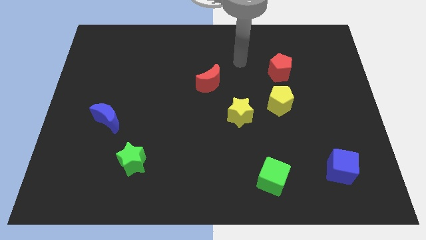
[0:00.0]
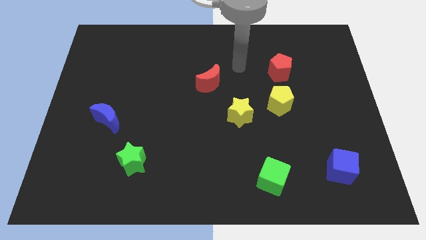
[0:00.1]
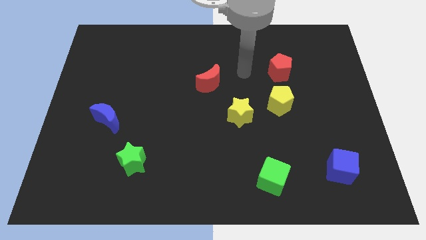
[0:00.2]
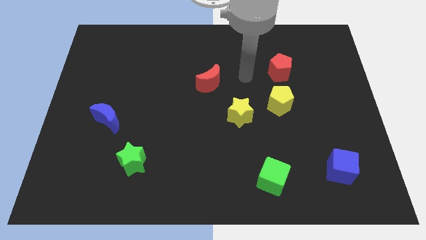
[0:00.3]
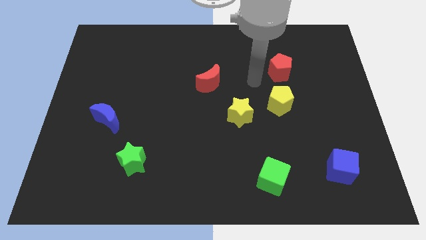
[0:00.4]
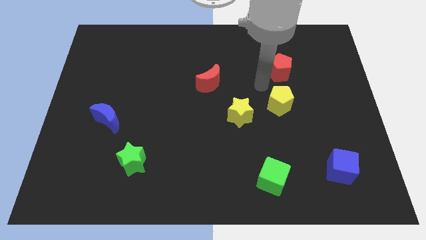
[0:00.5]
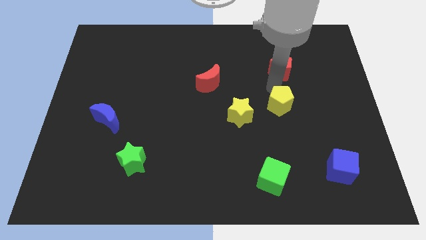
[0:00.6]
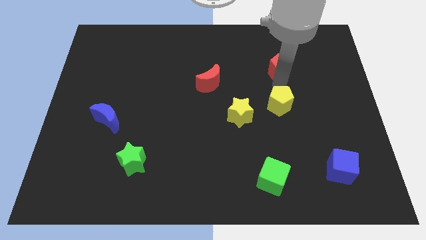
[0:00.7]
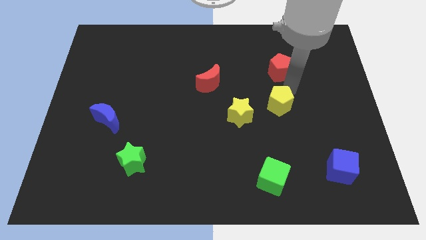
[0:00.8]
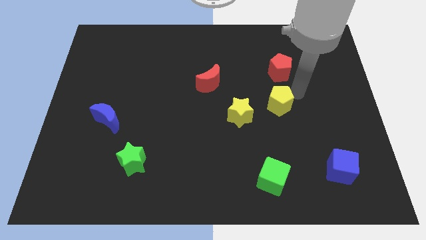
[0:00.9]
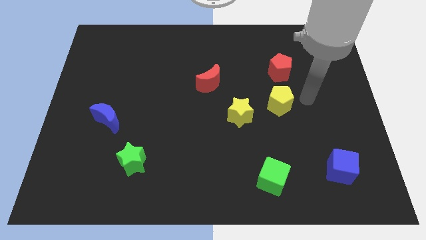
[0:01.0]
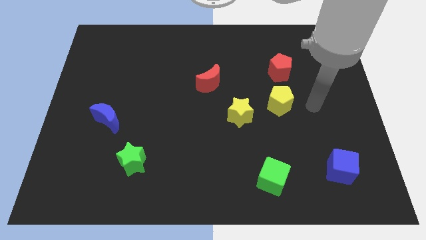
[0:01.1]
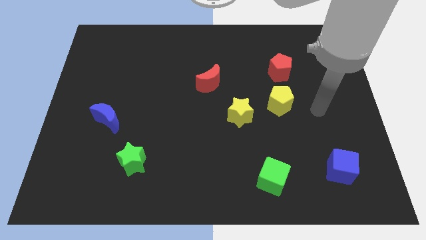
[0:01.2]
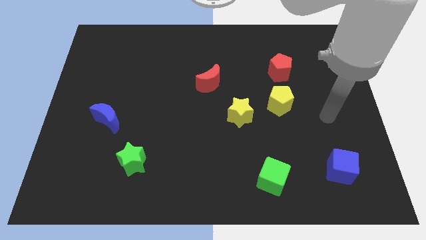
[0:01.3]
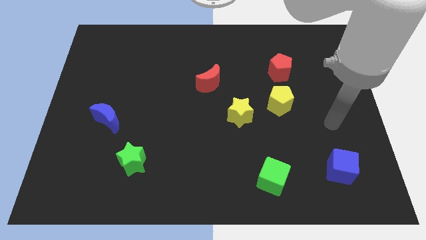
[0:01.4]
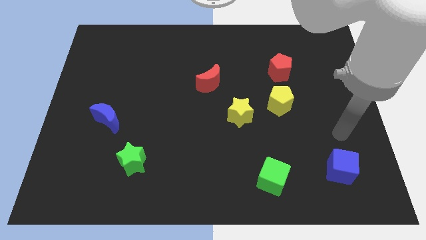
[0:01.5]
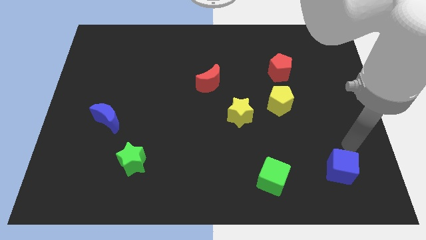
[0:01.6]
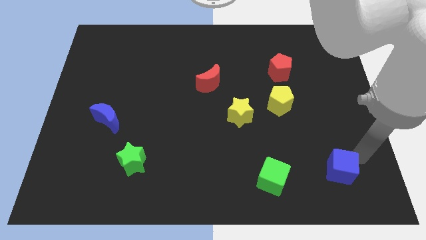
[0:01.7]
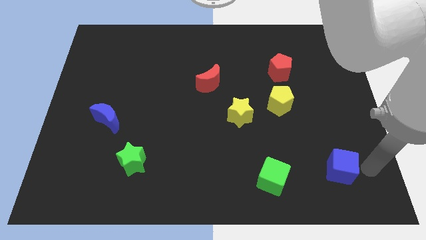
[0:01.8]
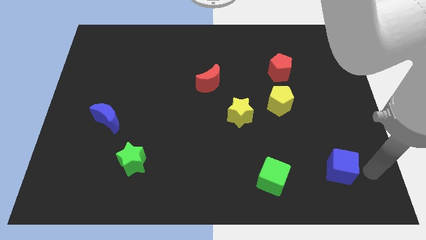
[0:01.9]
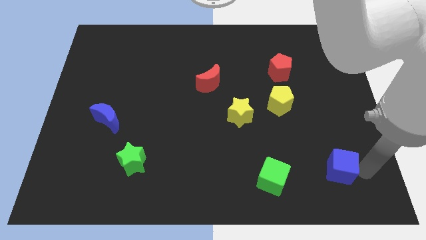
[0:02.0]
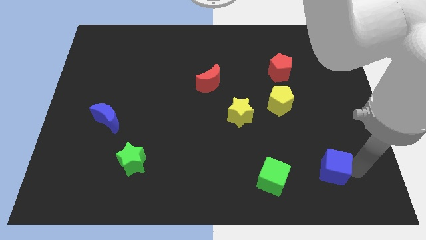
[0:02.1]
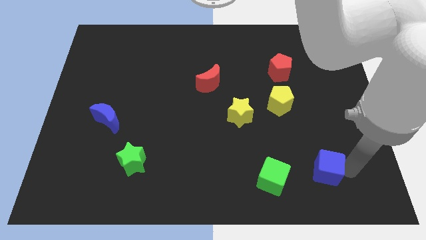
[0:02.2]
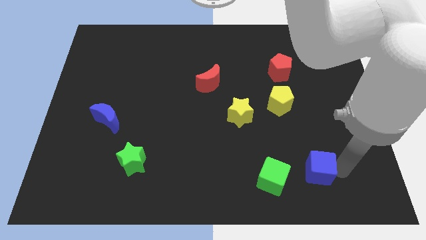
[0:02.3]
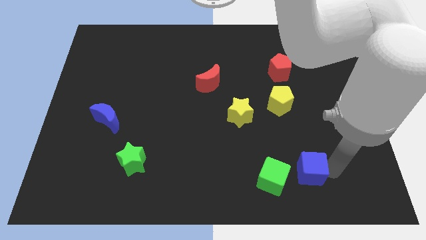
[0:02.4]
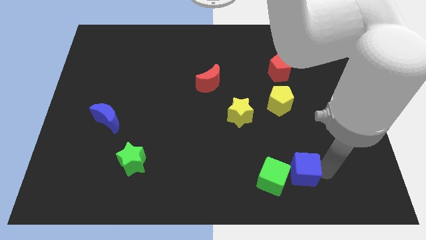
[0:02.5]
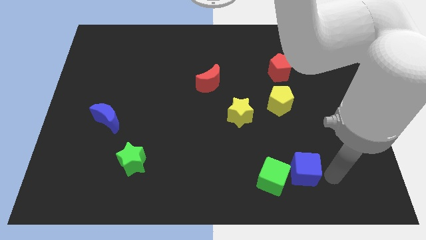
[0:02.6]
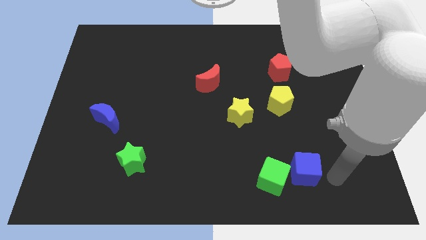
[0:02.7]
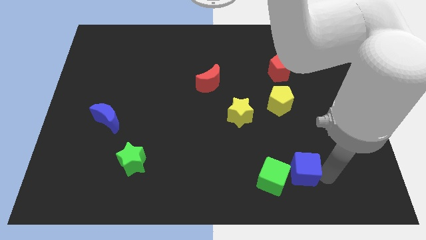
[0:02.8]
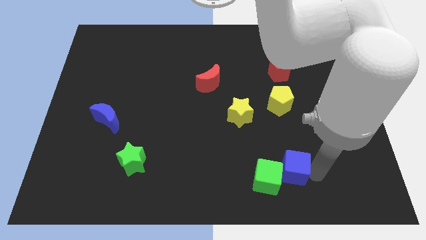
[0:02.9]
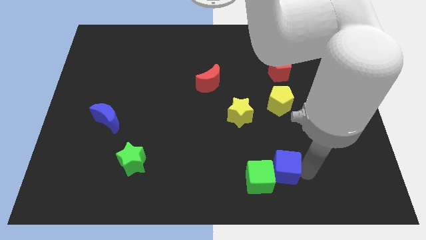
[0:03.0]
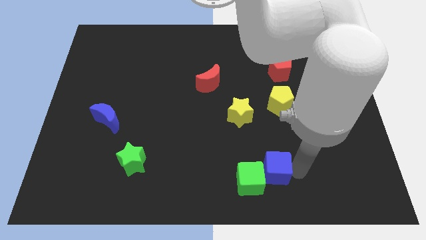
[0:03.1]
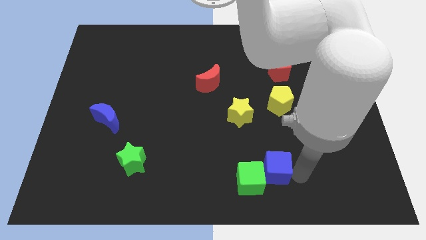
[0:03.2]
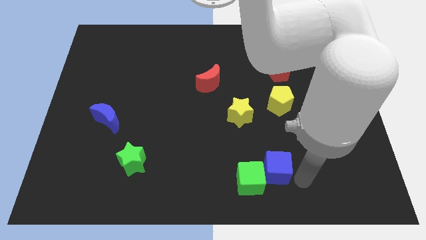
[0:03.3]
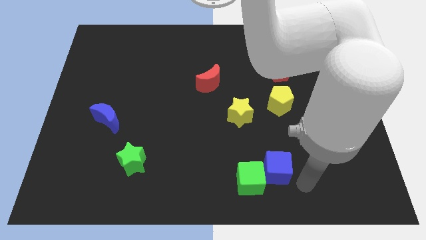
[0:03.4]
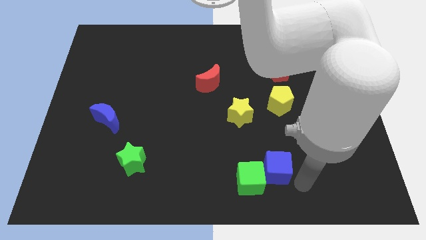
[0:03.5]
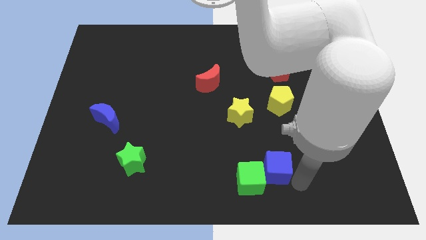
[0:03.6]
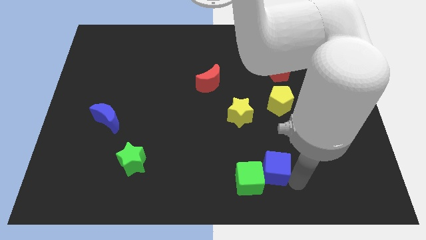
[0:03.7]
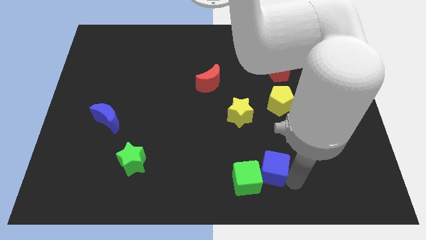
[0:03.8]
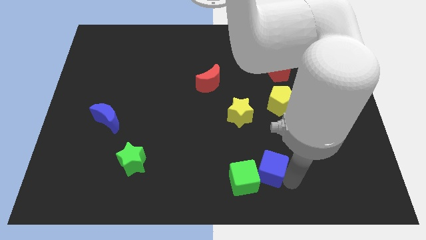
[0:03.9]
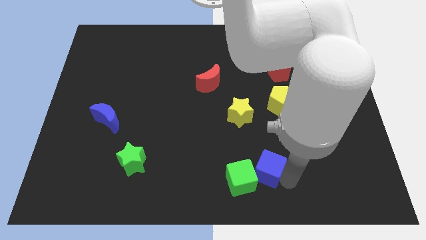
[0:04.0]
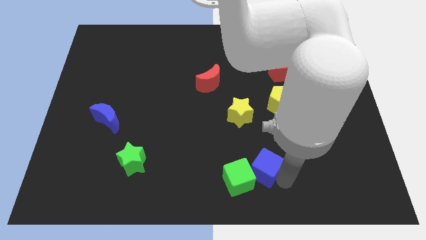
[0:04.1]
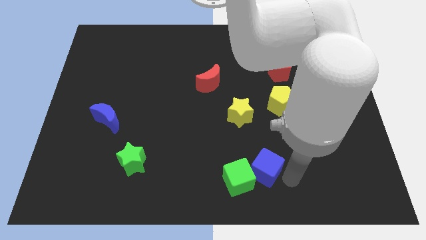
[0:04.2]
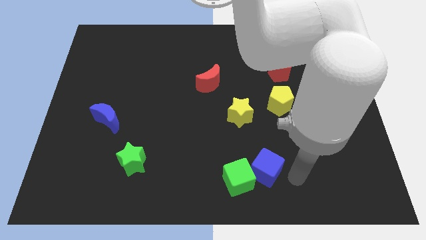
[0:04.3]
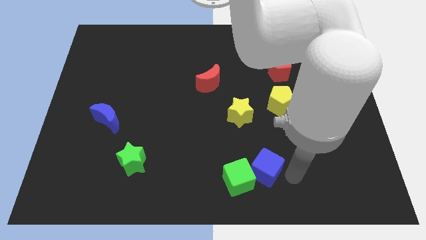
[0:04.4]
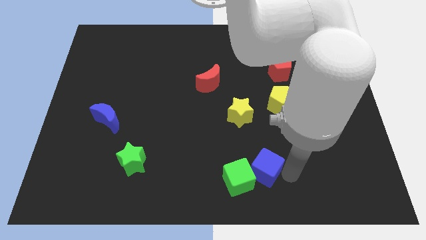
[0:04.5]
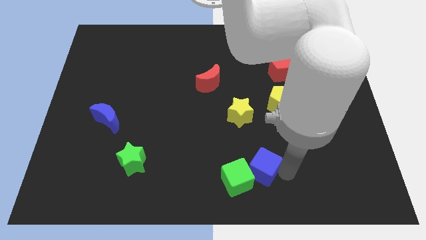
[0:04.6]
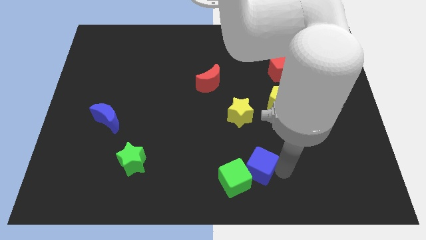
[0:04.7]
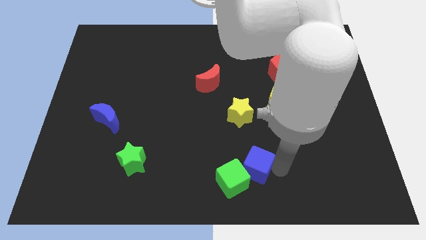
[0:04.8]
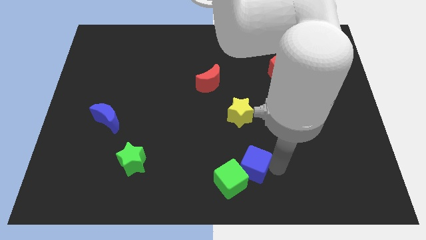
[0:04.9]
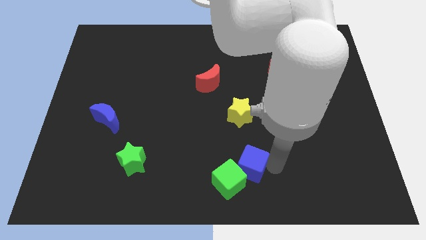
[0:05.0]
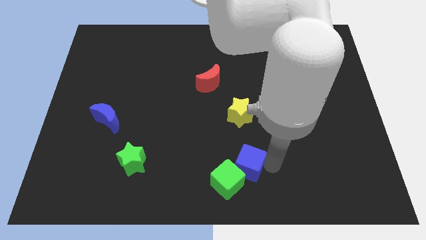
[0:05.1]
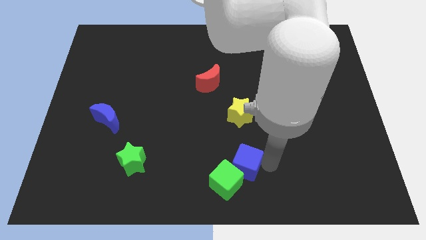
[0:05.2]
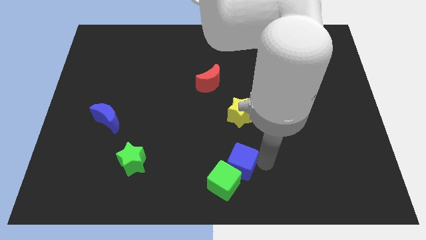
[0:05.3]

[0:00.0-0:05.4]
push the blue cube left

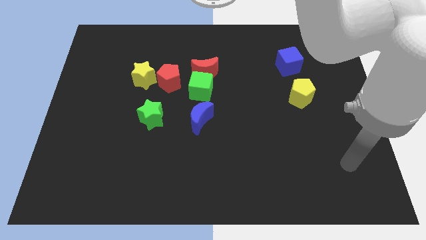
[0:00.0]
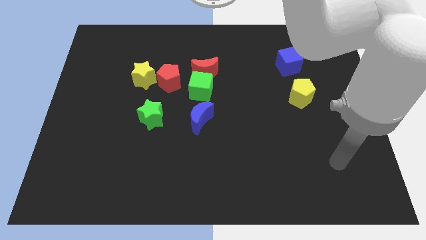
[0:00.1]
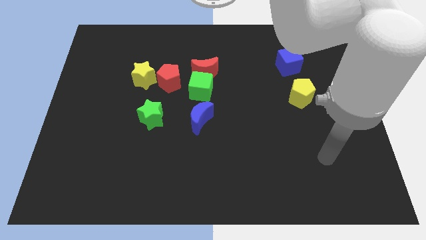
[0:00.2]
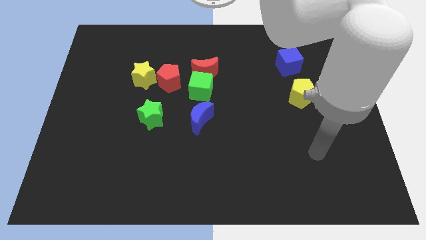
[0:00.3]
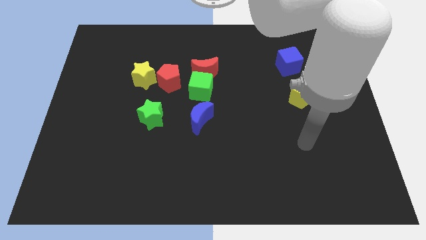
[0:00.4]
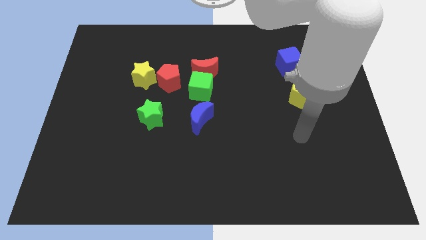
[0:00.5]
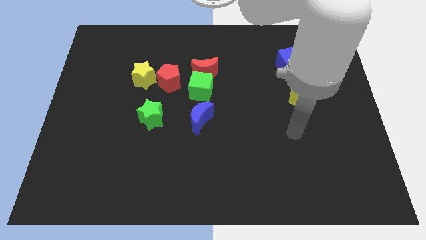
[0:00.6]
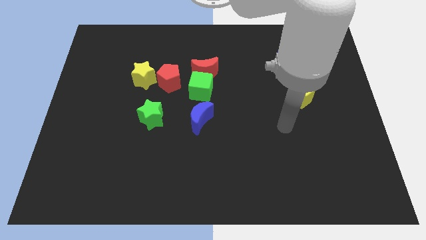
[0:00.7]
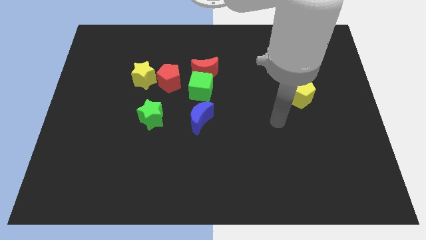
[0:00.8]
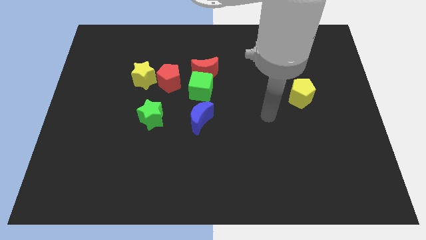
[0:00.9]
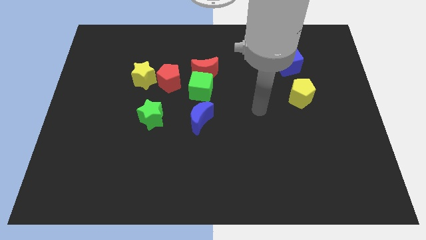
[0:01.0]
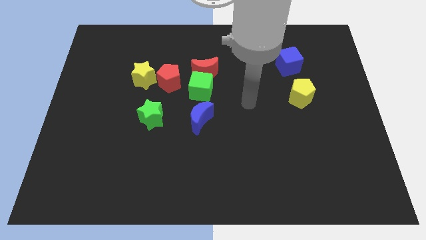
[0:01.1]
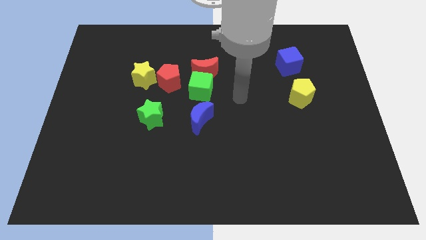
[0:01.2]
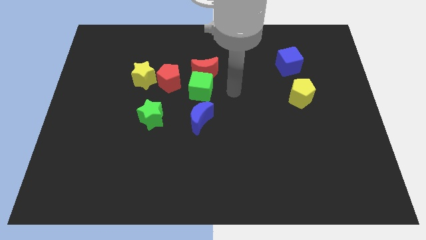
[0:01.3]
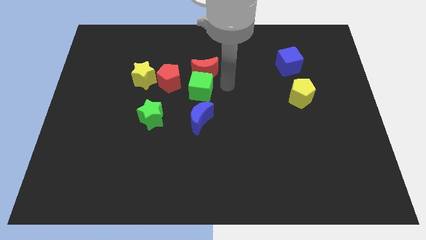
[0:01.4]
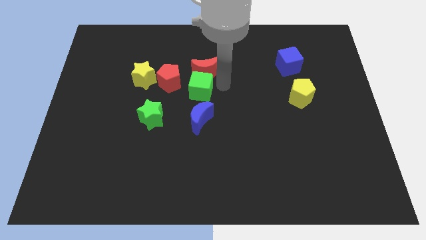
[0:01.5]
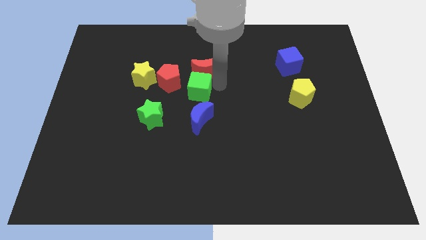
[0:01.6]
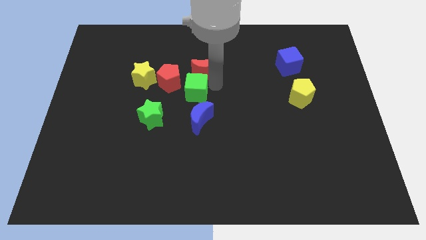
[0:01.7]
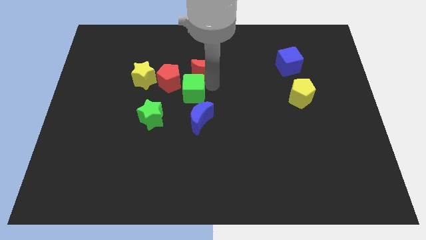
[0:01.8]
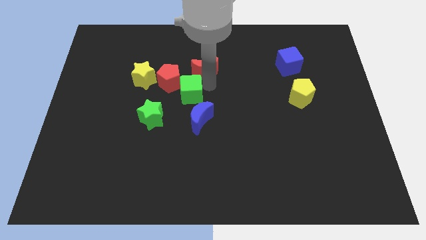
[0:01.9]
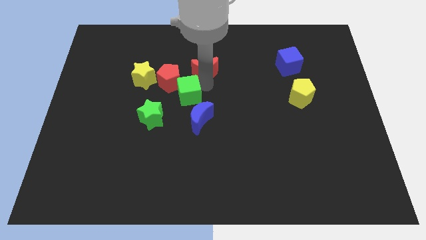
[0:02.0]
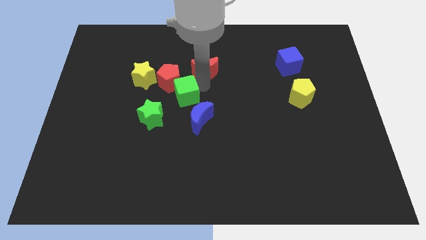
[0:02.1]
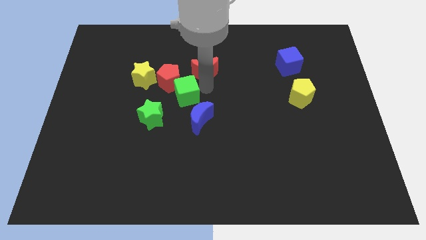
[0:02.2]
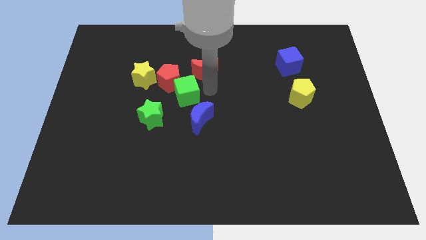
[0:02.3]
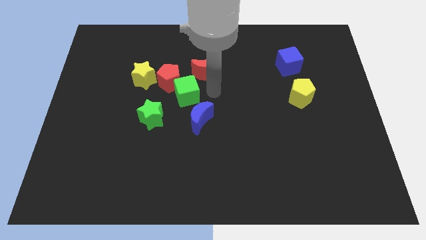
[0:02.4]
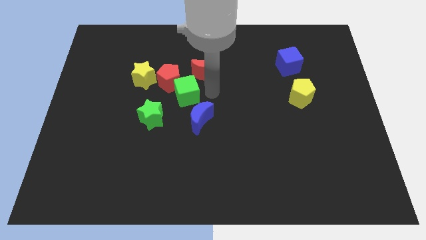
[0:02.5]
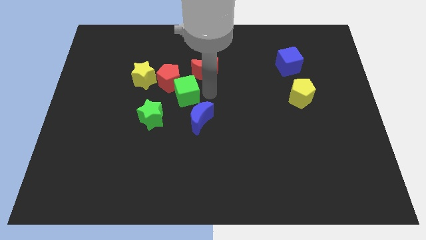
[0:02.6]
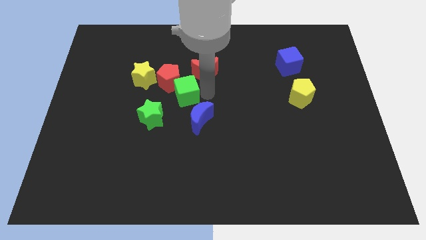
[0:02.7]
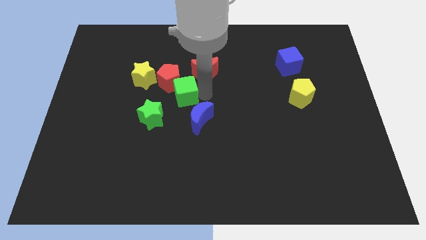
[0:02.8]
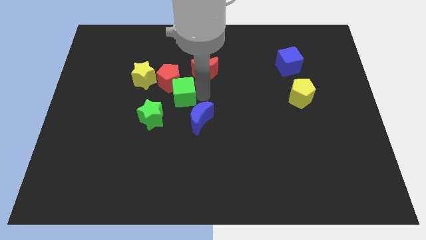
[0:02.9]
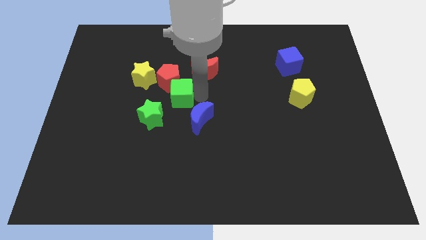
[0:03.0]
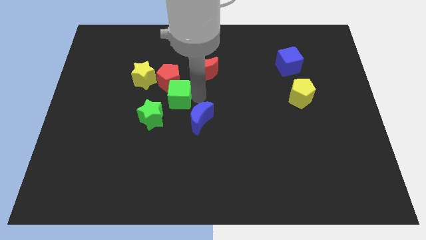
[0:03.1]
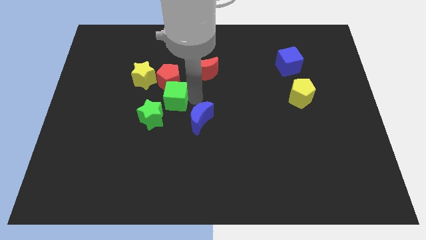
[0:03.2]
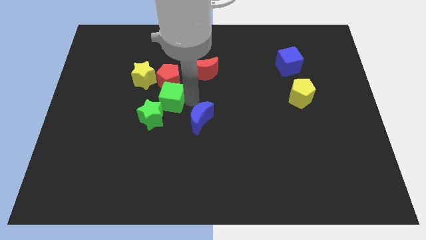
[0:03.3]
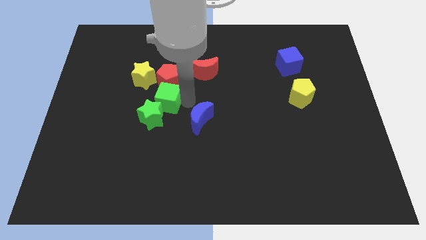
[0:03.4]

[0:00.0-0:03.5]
move the green cube somewhat to the left
